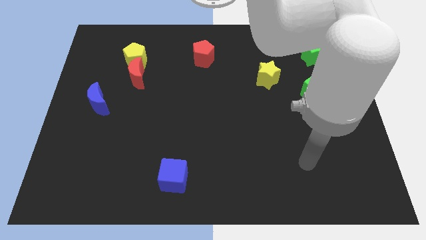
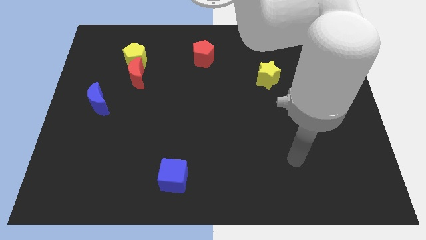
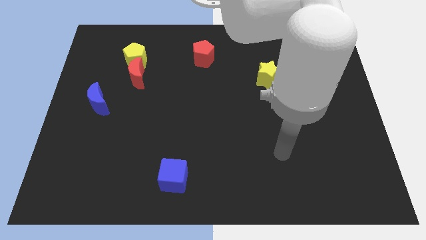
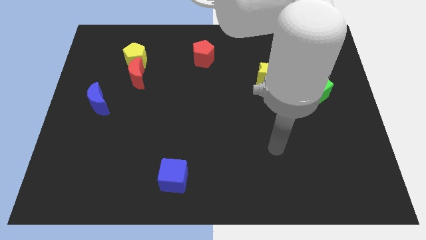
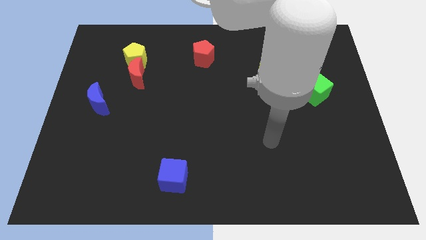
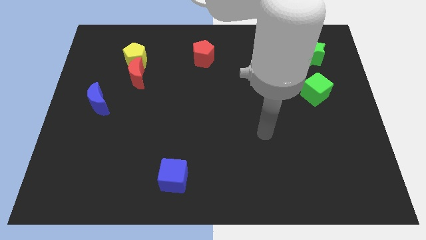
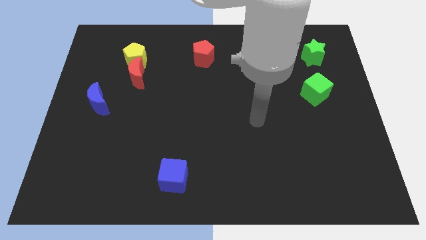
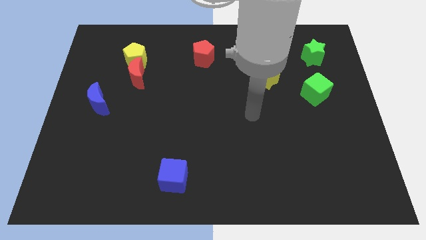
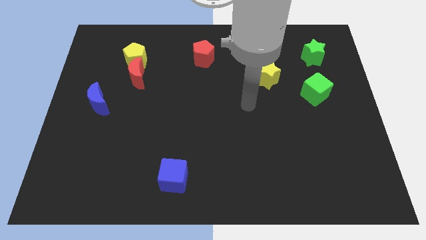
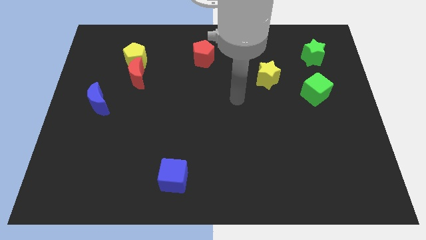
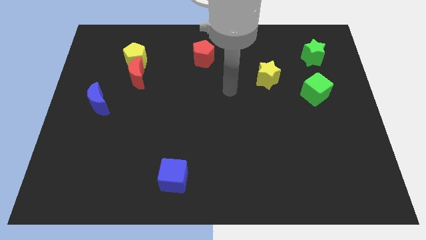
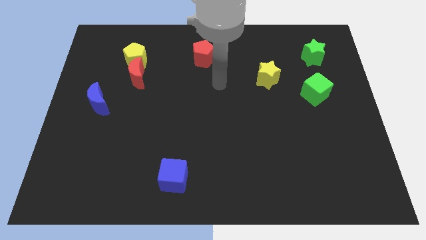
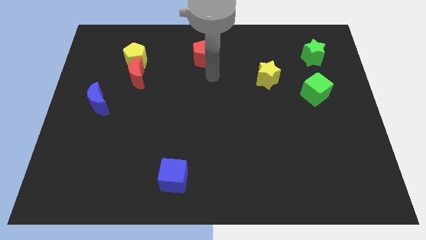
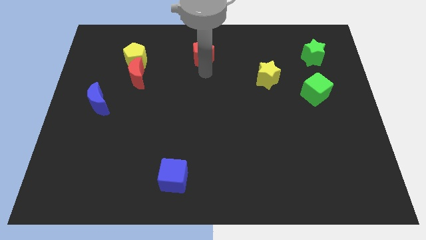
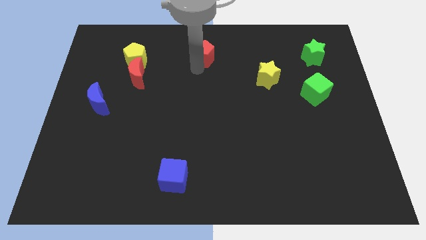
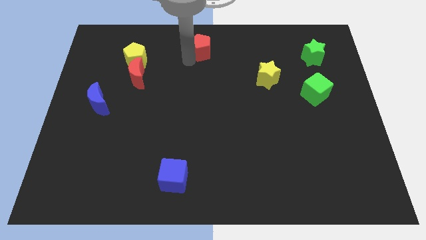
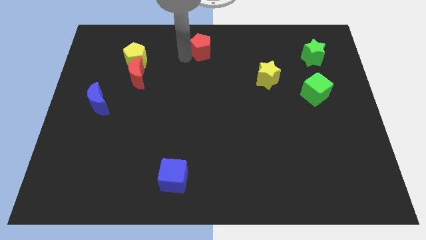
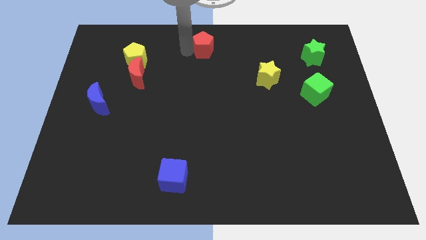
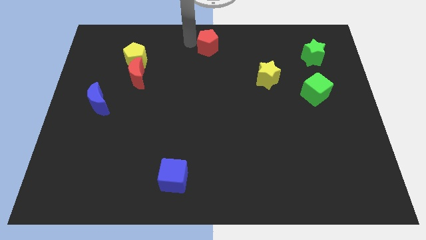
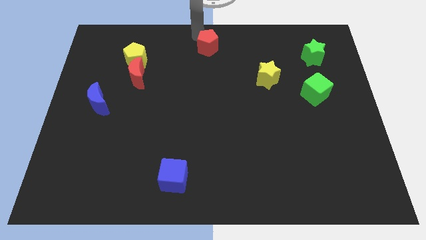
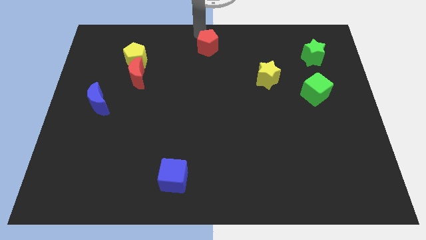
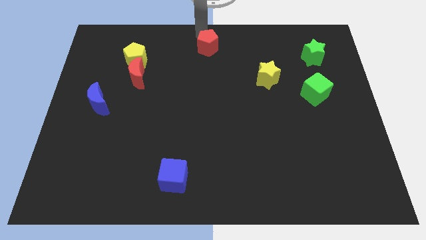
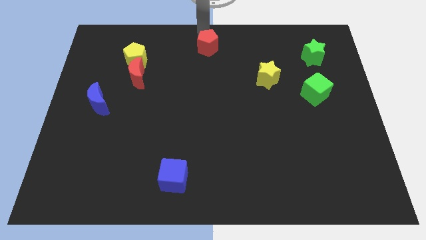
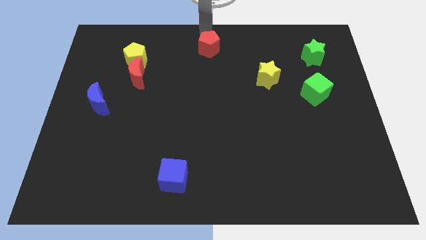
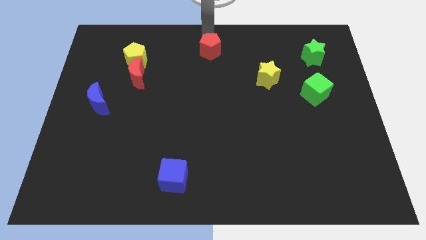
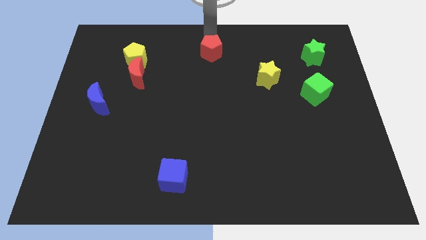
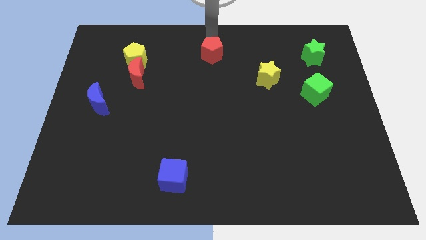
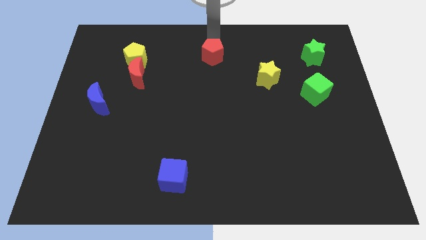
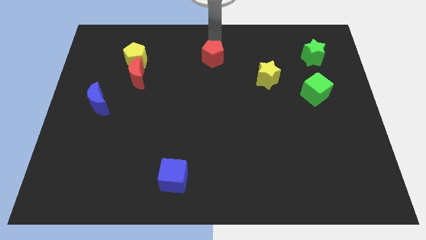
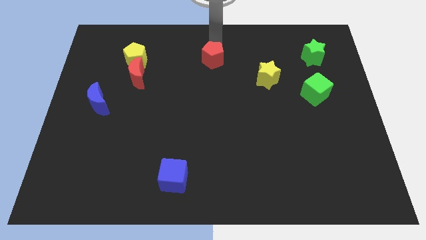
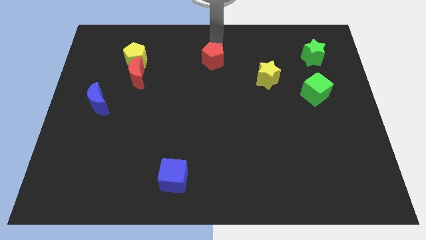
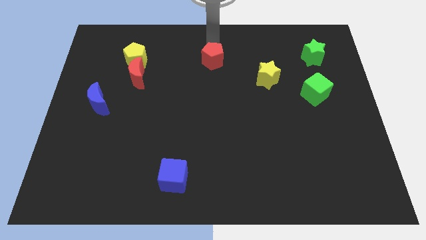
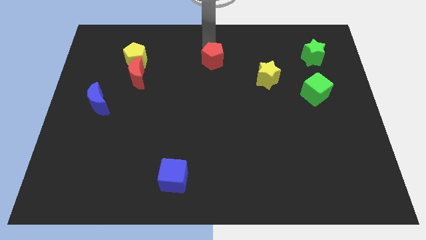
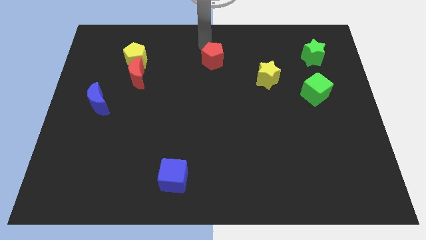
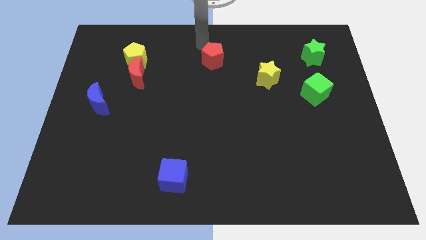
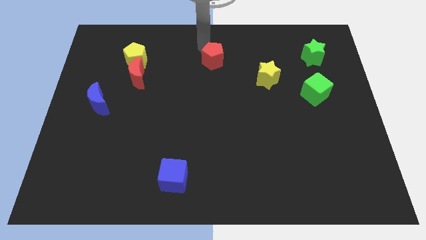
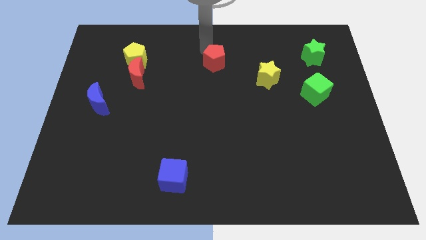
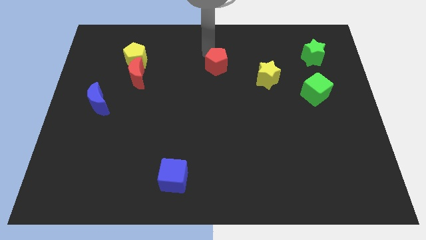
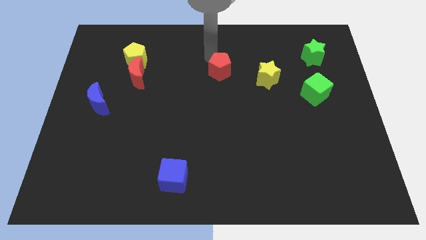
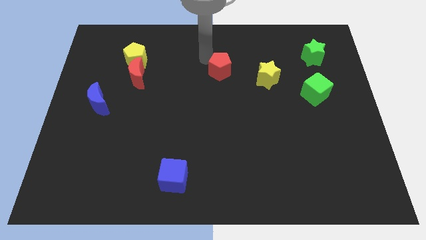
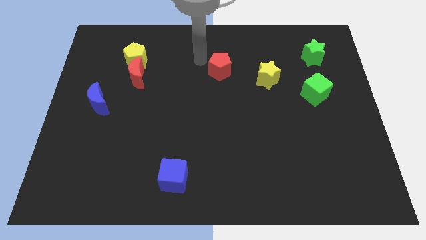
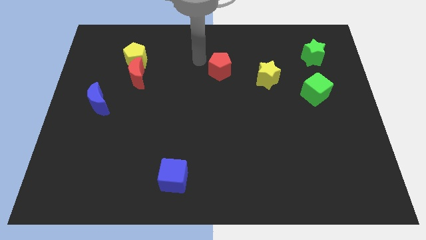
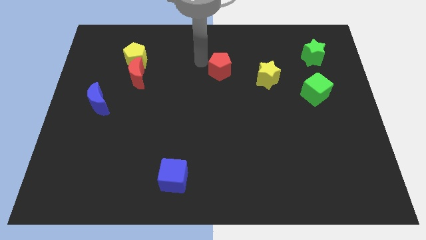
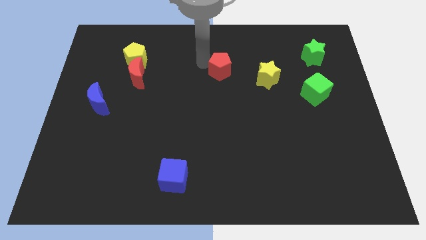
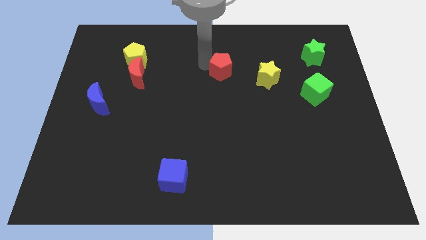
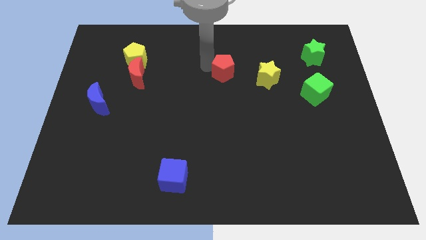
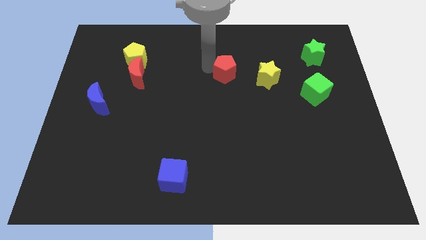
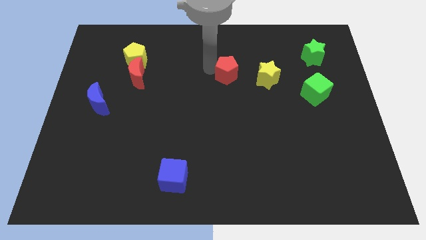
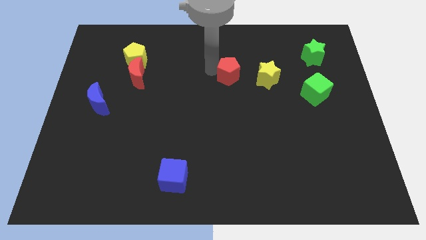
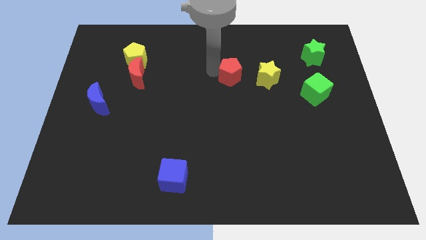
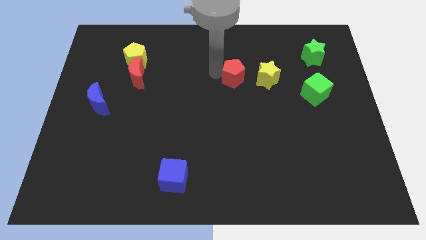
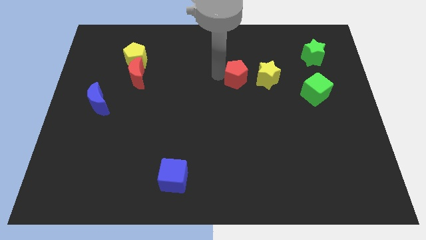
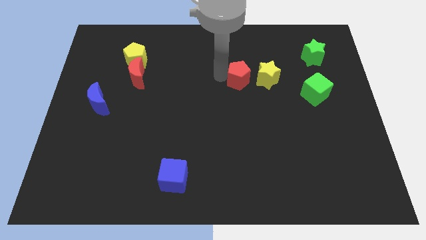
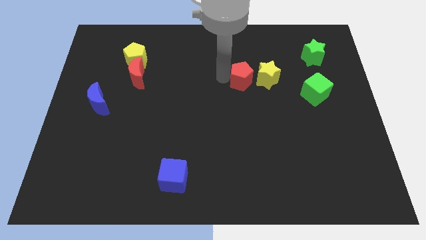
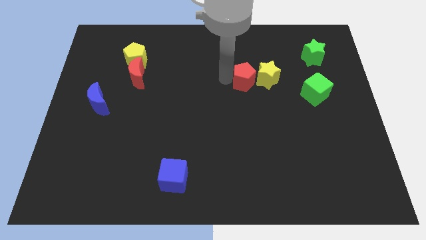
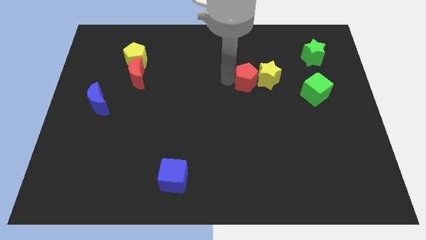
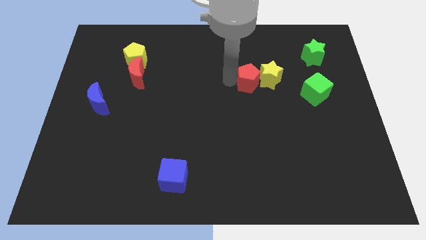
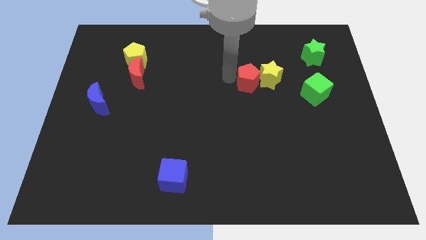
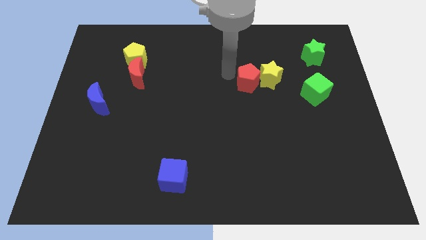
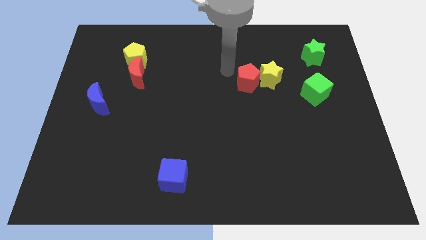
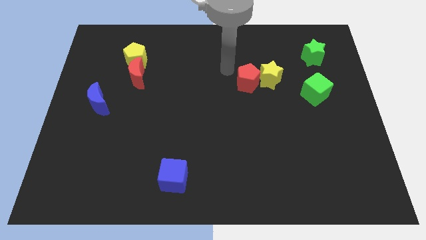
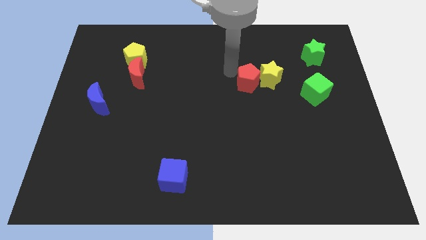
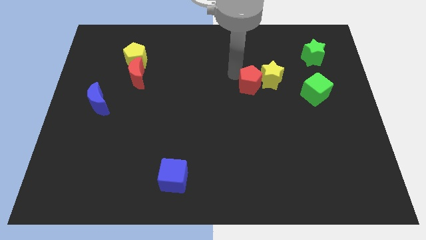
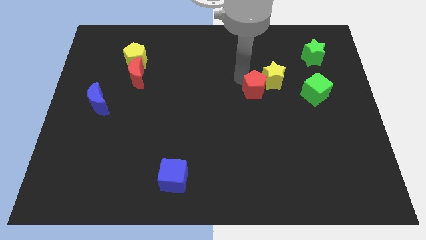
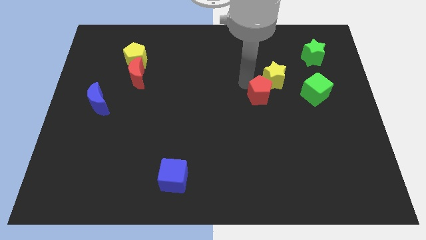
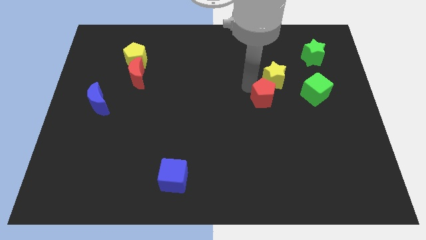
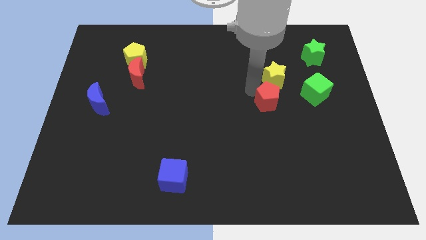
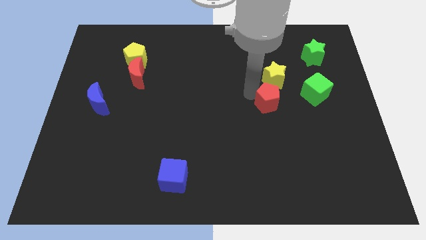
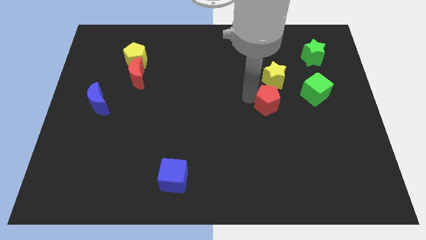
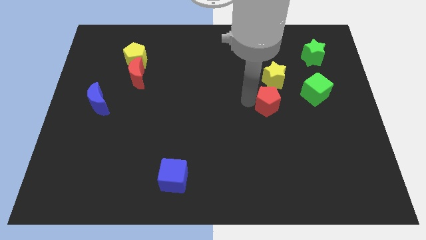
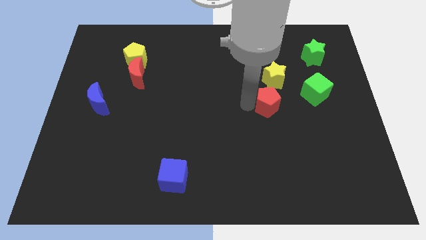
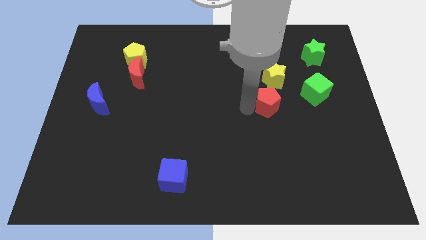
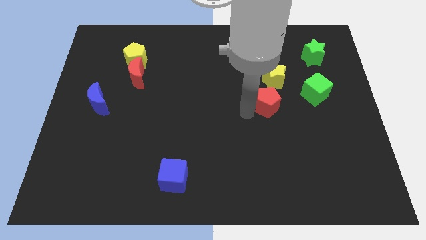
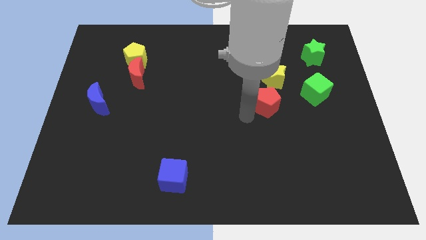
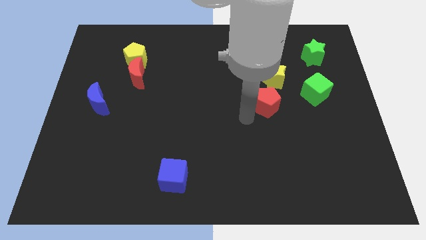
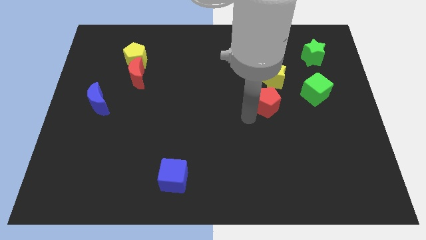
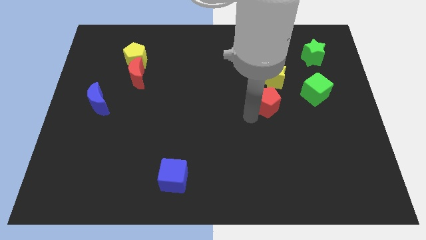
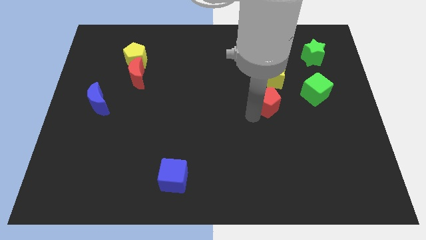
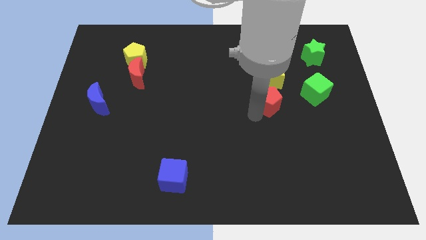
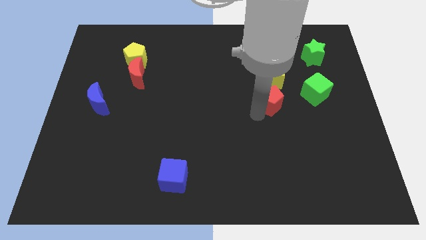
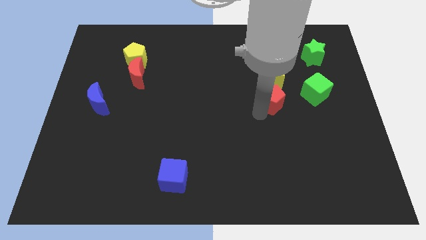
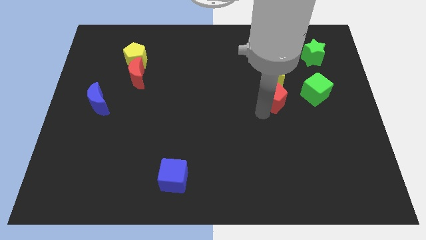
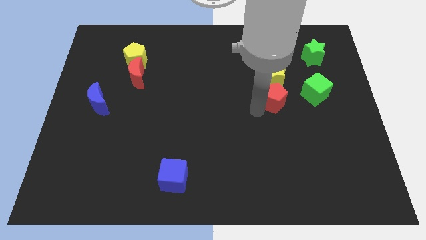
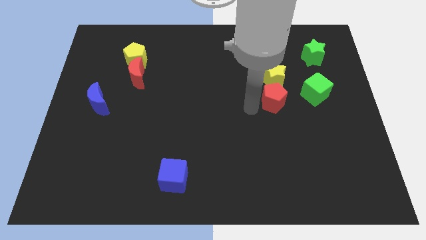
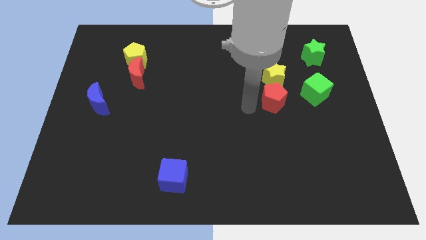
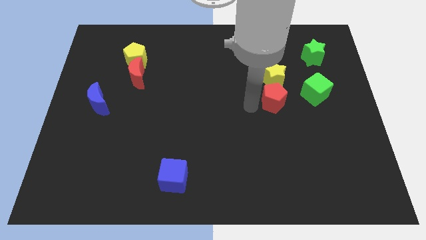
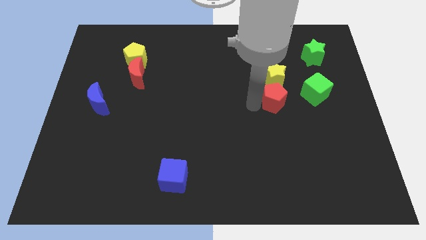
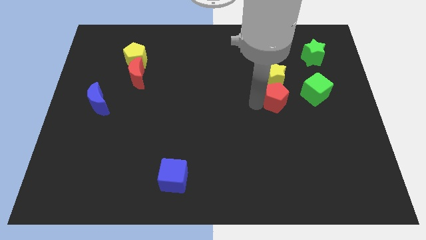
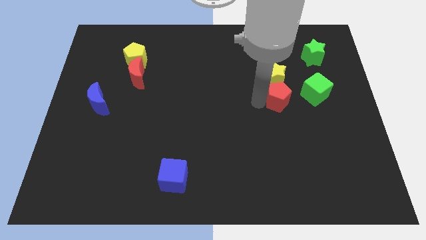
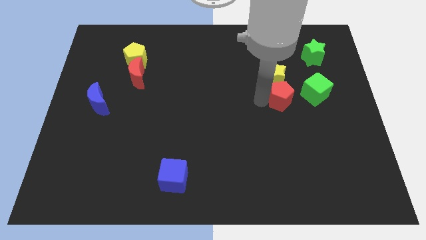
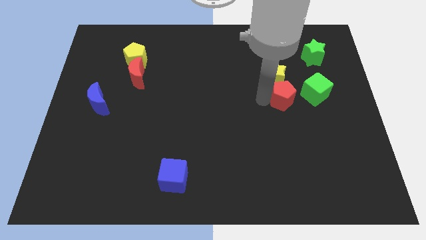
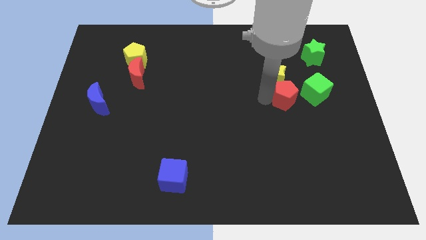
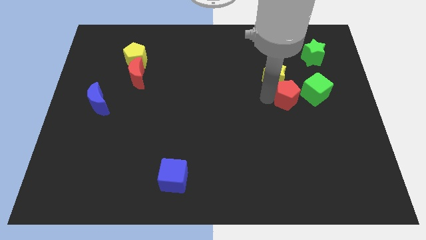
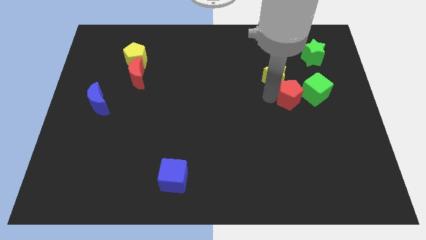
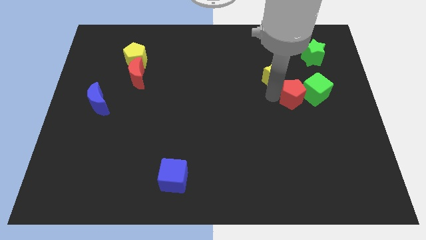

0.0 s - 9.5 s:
put the red pentagon towards the green cube
